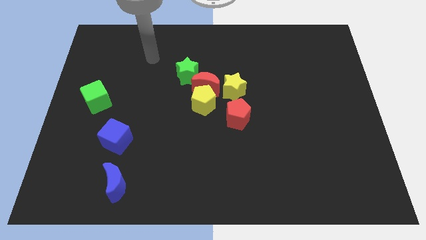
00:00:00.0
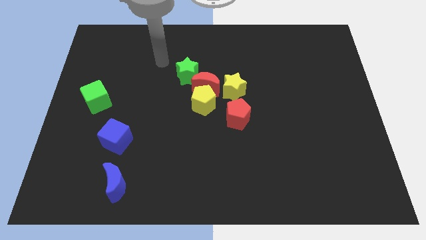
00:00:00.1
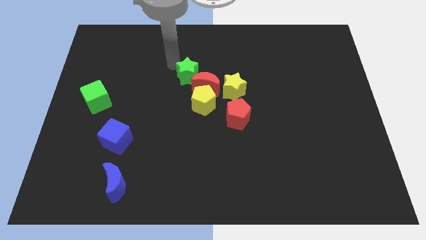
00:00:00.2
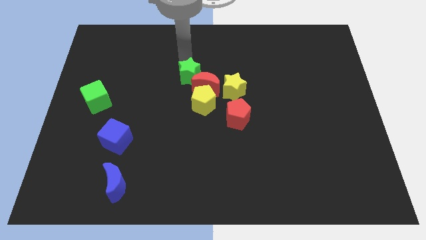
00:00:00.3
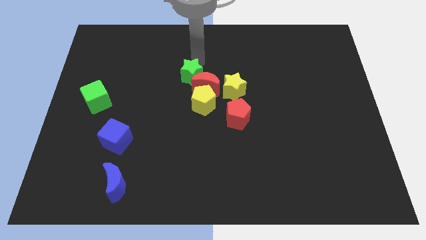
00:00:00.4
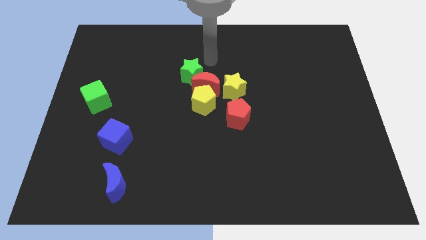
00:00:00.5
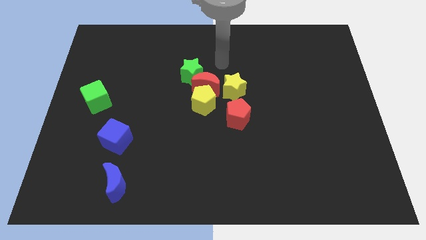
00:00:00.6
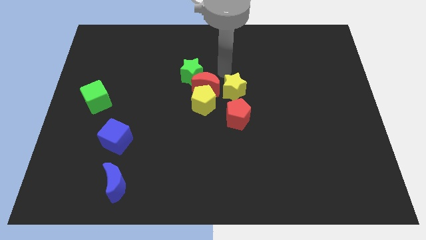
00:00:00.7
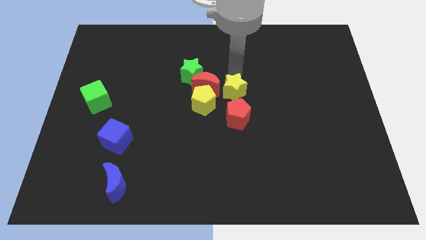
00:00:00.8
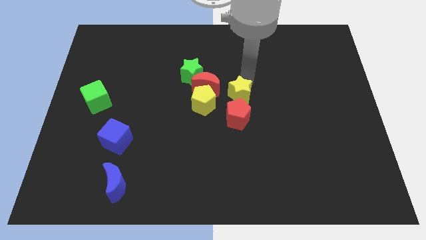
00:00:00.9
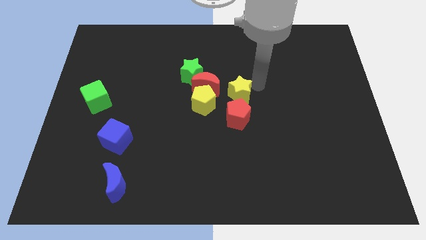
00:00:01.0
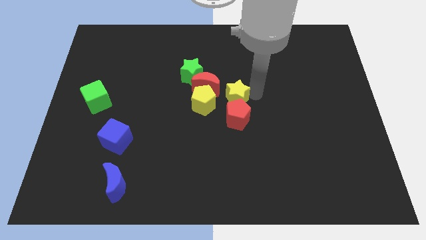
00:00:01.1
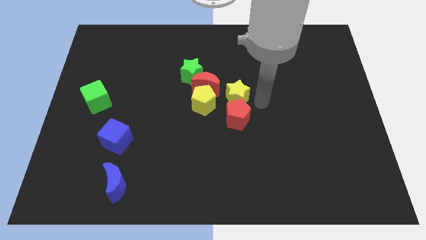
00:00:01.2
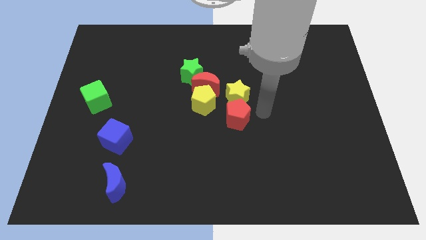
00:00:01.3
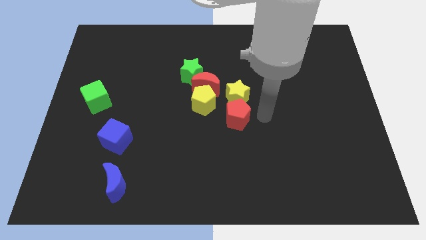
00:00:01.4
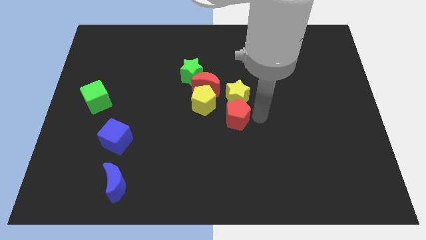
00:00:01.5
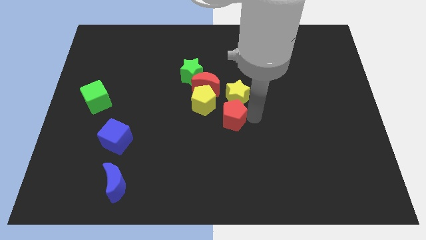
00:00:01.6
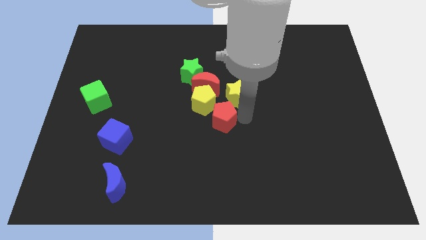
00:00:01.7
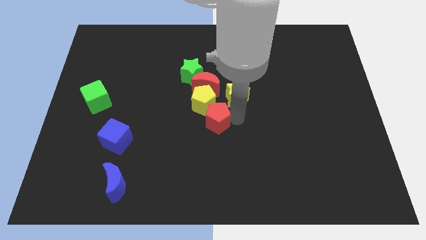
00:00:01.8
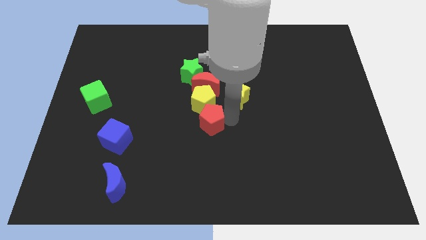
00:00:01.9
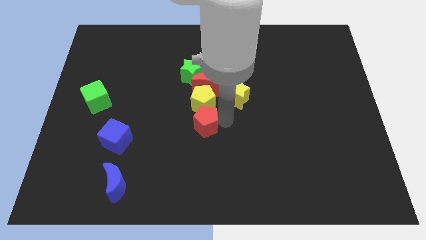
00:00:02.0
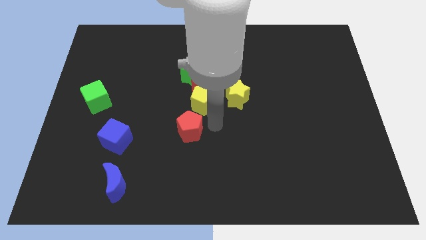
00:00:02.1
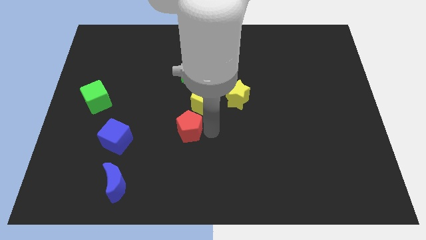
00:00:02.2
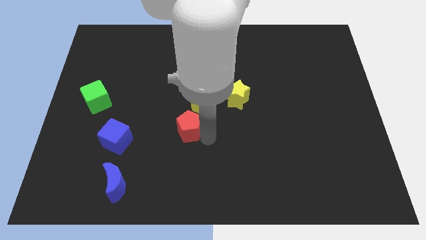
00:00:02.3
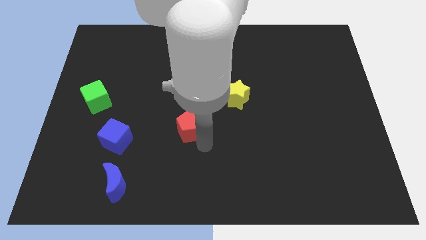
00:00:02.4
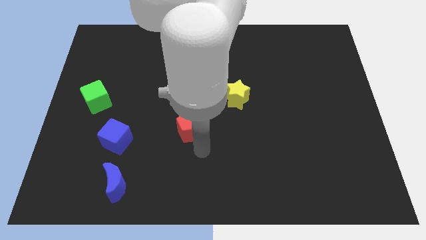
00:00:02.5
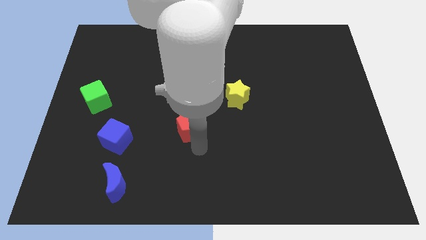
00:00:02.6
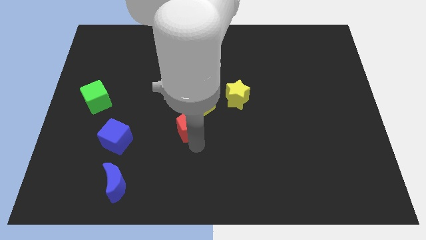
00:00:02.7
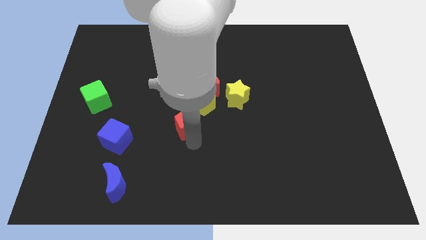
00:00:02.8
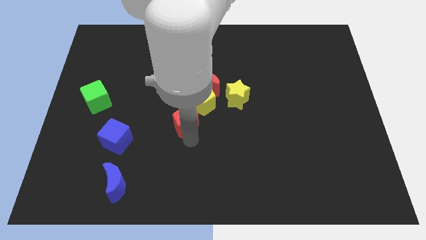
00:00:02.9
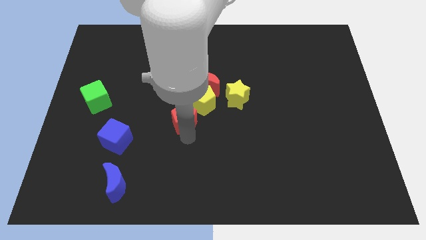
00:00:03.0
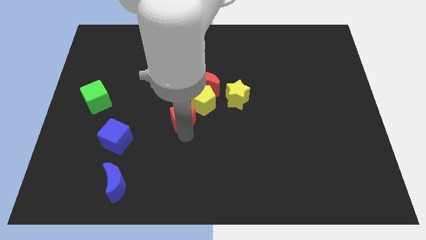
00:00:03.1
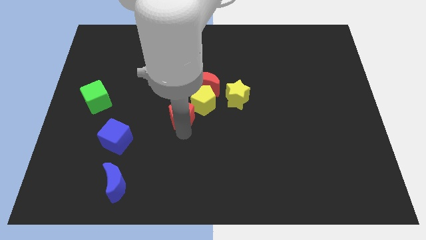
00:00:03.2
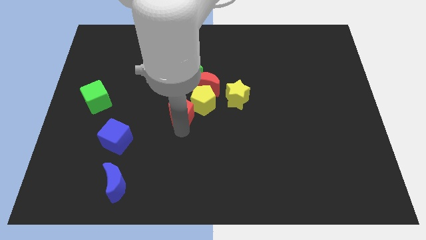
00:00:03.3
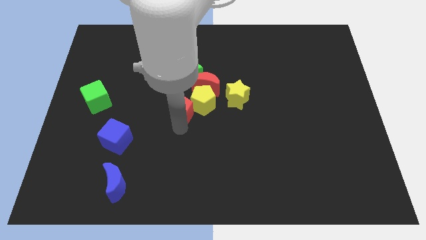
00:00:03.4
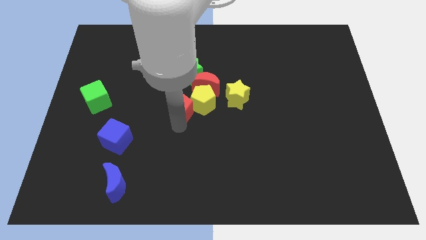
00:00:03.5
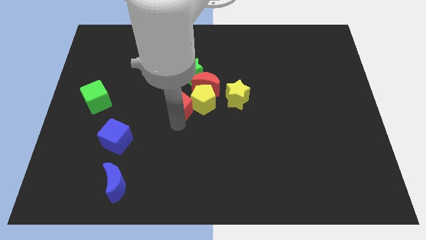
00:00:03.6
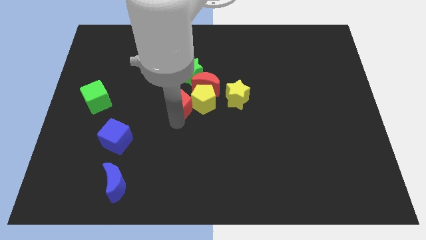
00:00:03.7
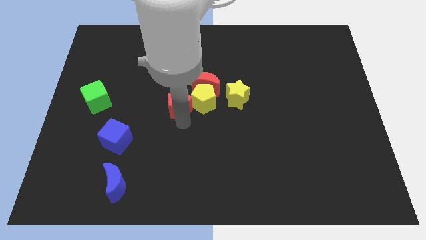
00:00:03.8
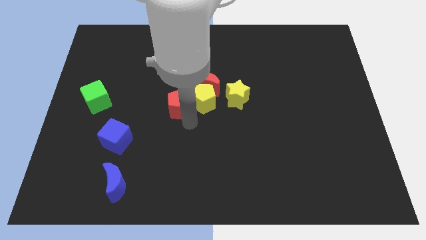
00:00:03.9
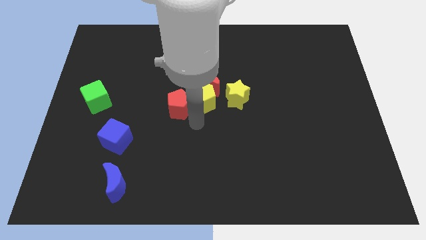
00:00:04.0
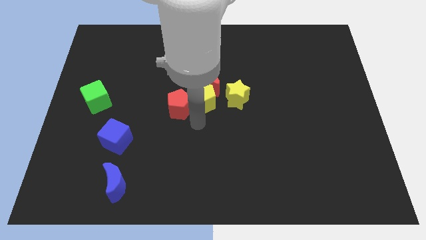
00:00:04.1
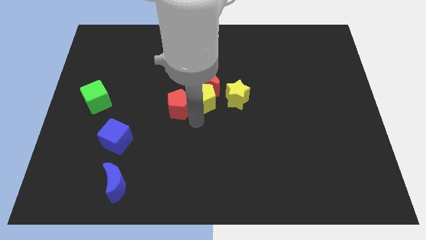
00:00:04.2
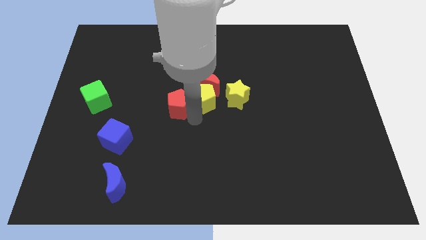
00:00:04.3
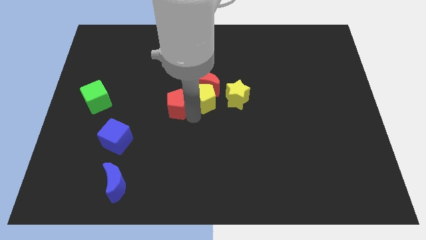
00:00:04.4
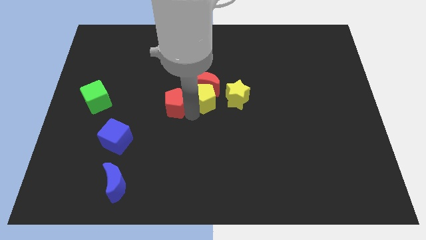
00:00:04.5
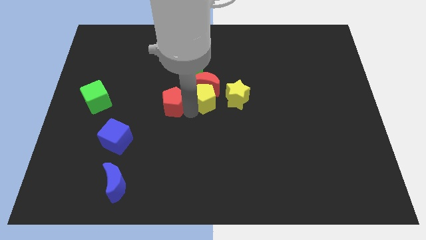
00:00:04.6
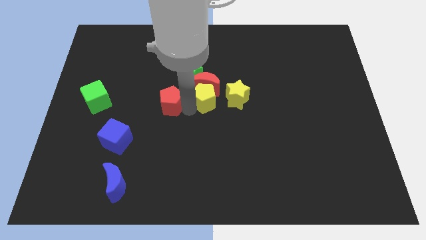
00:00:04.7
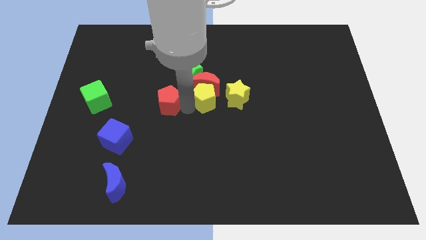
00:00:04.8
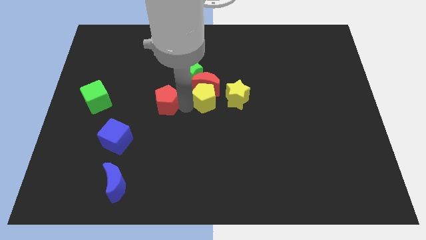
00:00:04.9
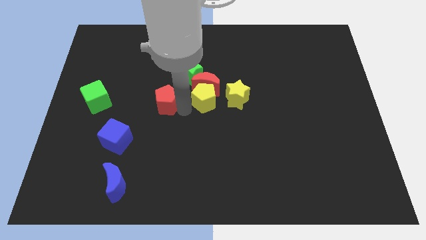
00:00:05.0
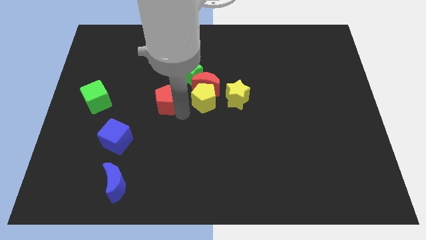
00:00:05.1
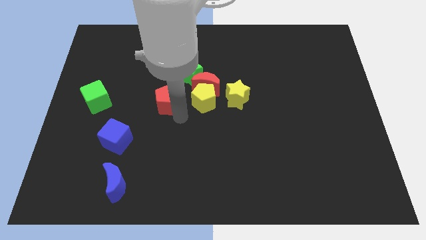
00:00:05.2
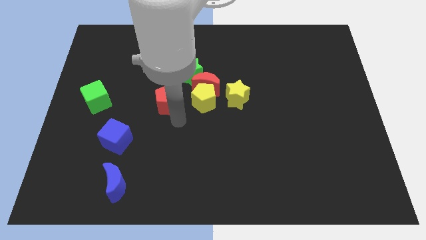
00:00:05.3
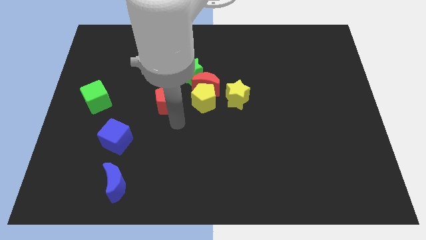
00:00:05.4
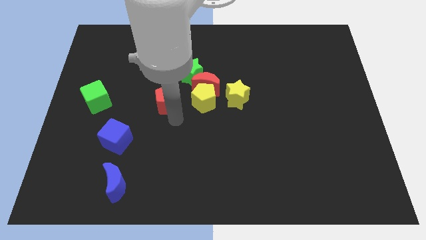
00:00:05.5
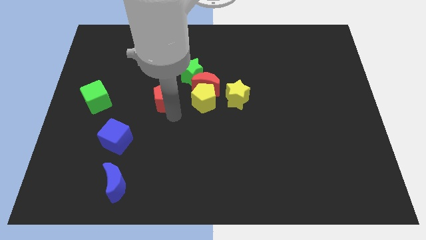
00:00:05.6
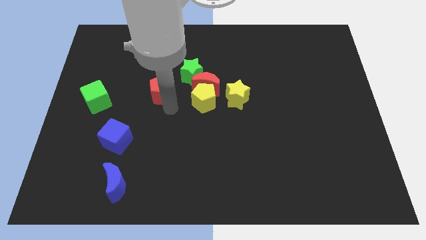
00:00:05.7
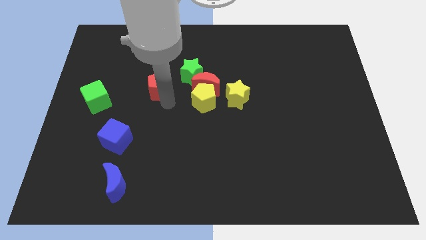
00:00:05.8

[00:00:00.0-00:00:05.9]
move the red pentagon to the left side of the green star

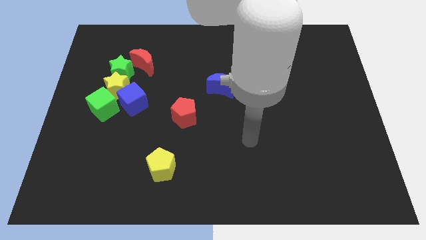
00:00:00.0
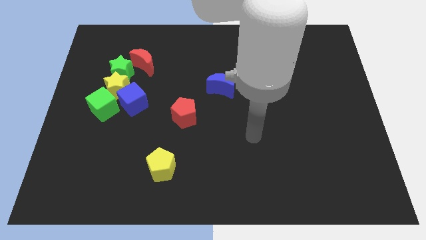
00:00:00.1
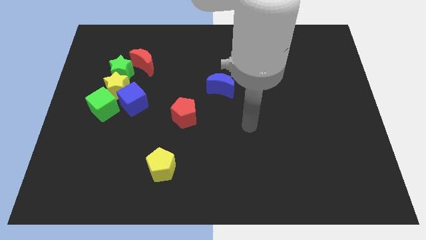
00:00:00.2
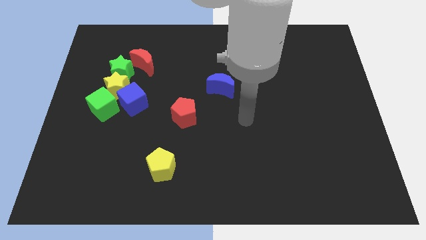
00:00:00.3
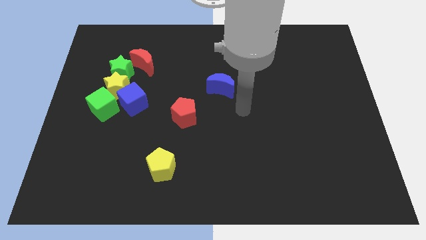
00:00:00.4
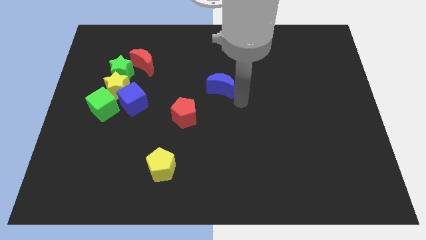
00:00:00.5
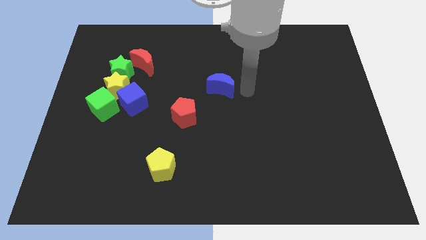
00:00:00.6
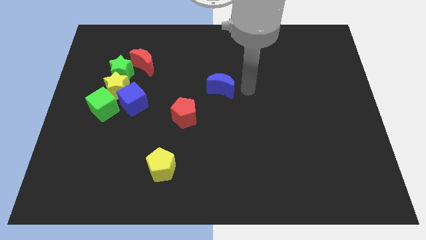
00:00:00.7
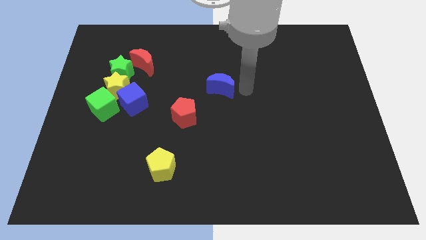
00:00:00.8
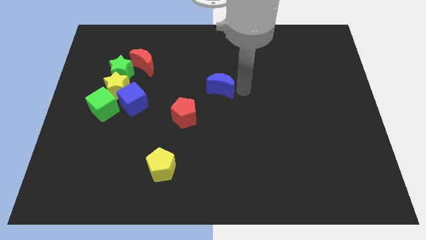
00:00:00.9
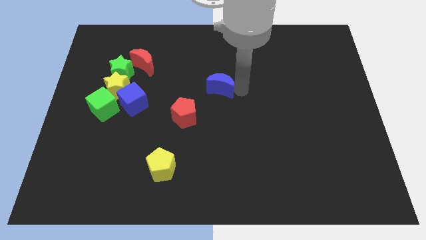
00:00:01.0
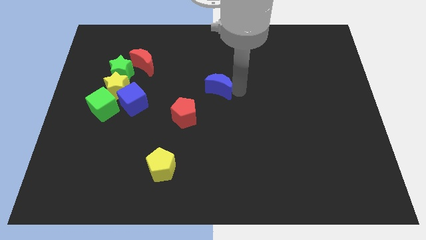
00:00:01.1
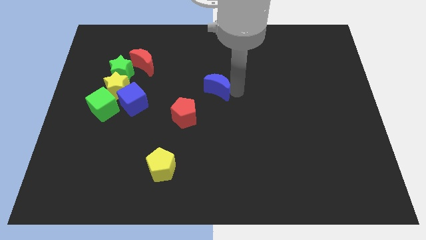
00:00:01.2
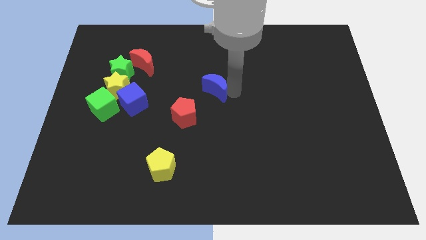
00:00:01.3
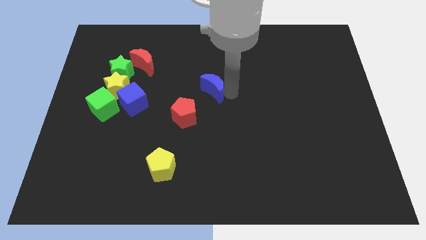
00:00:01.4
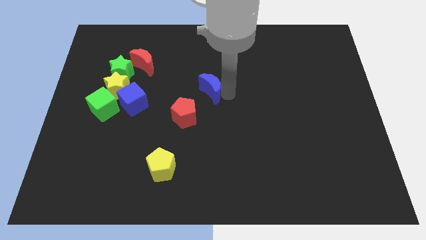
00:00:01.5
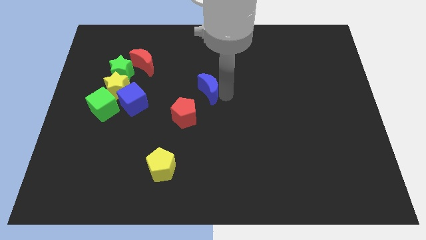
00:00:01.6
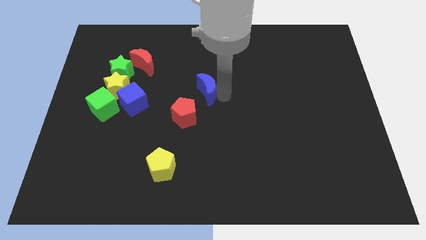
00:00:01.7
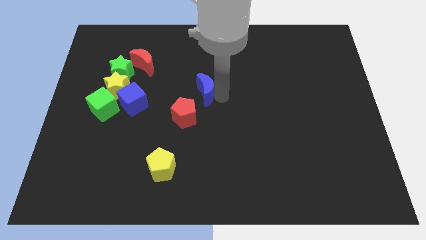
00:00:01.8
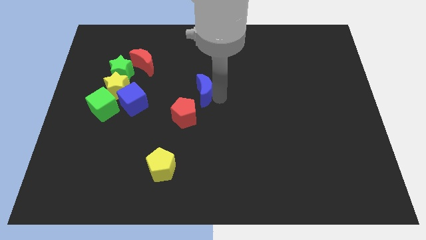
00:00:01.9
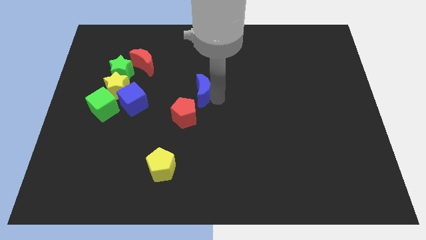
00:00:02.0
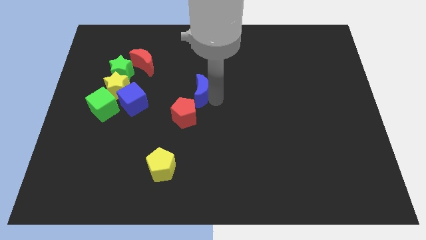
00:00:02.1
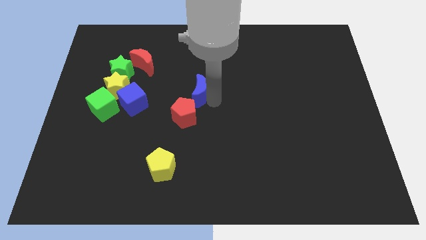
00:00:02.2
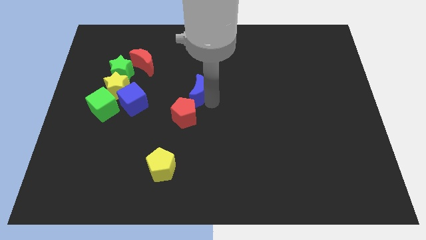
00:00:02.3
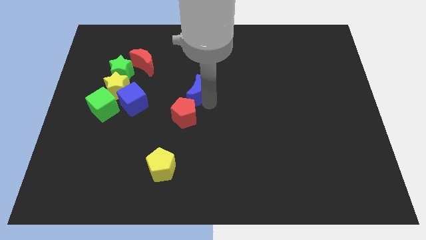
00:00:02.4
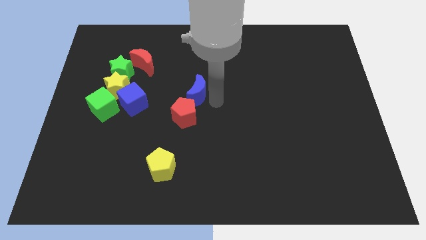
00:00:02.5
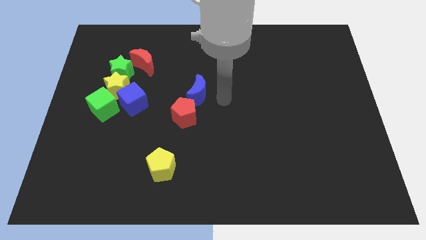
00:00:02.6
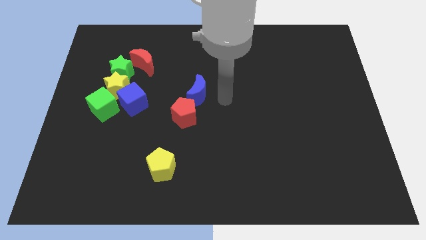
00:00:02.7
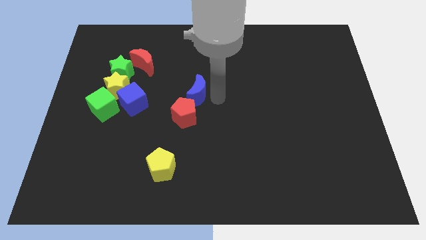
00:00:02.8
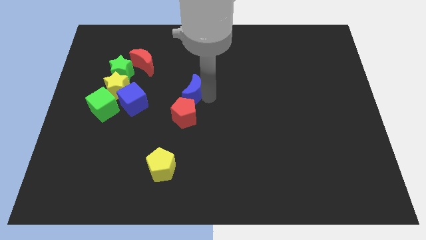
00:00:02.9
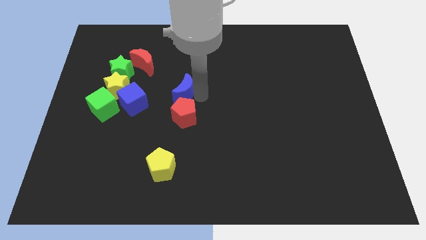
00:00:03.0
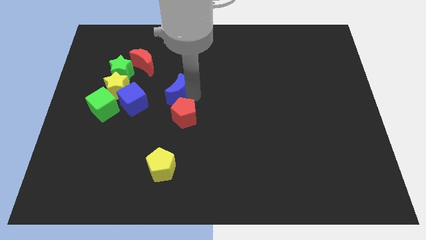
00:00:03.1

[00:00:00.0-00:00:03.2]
put the blue moon to the right of the yellow star
